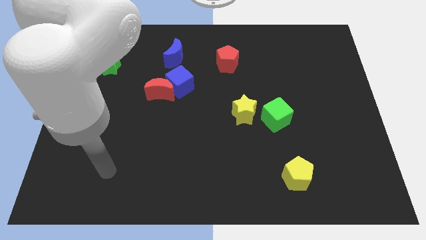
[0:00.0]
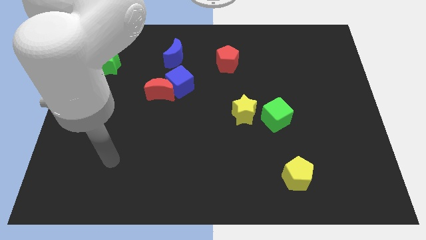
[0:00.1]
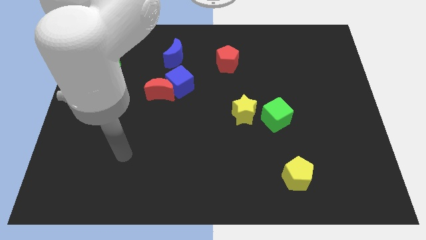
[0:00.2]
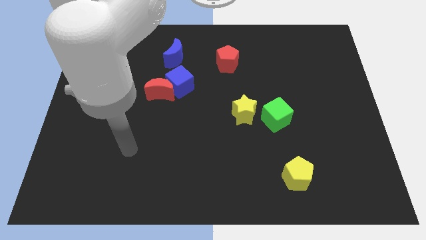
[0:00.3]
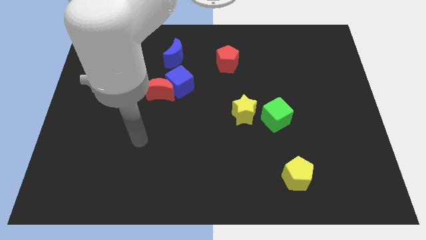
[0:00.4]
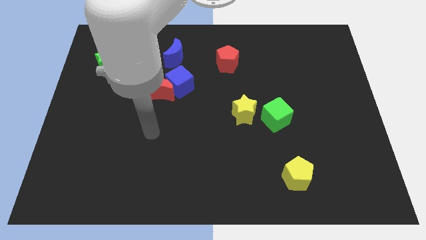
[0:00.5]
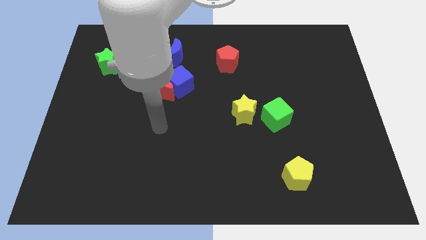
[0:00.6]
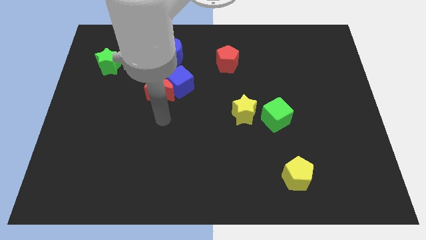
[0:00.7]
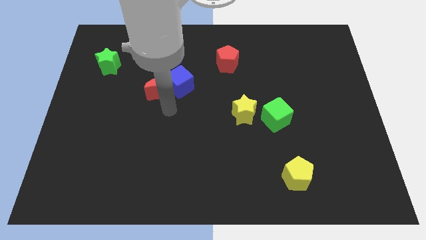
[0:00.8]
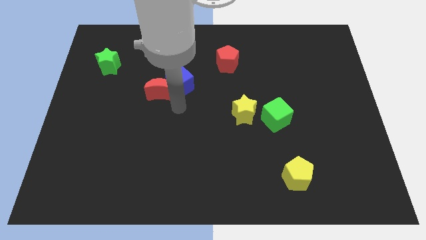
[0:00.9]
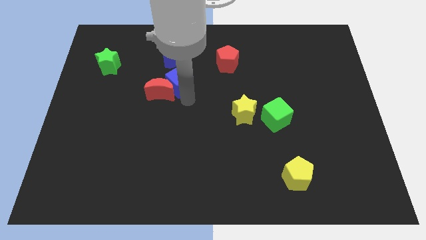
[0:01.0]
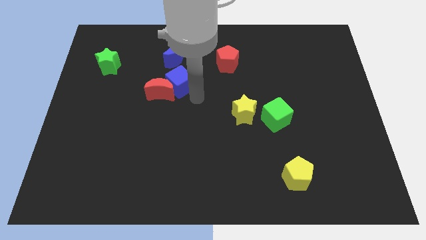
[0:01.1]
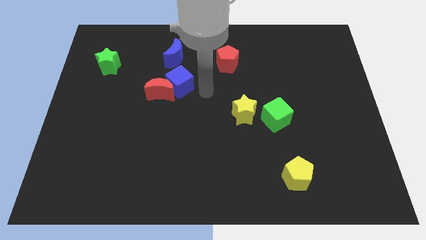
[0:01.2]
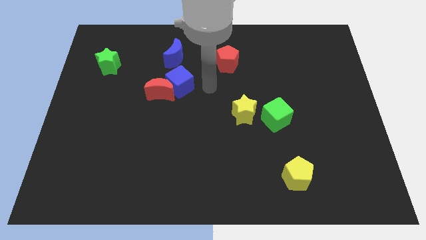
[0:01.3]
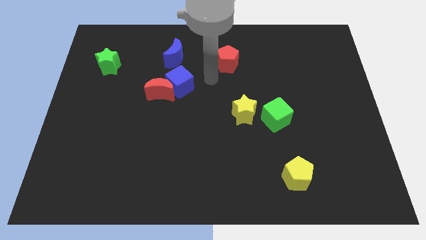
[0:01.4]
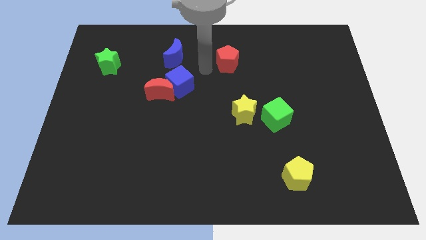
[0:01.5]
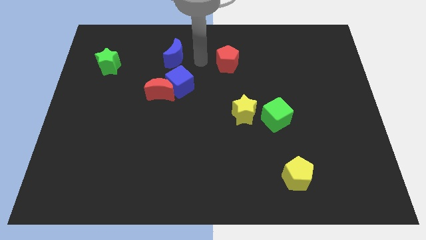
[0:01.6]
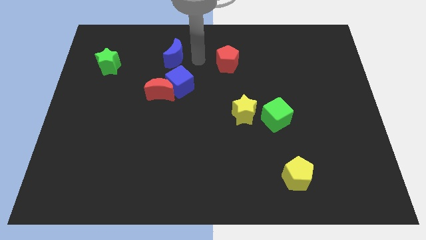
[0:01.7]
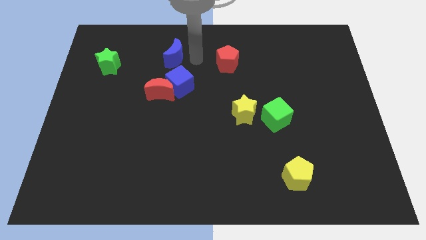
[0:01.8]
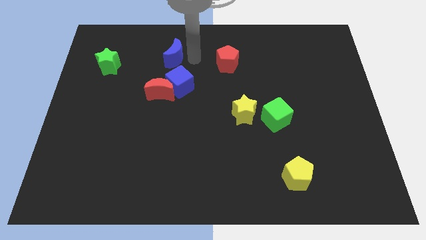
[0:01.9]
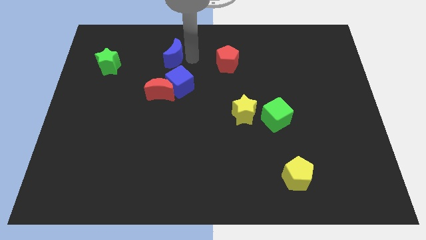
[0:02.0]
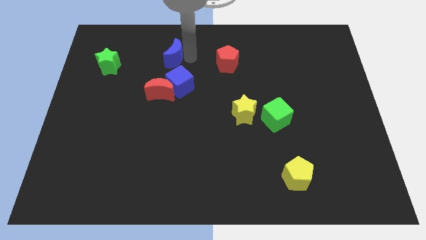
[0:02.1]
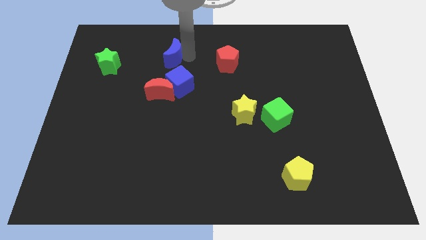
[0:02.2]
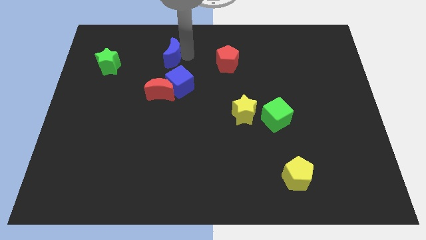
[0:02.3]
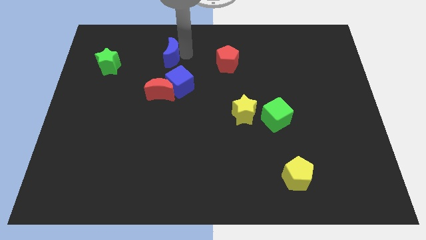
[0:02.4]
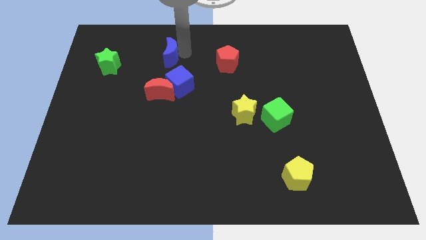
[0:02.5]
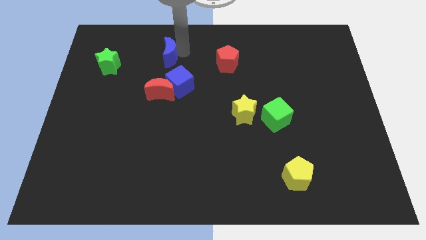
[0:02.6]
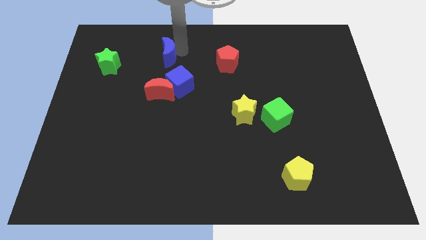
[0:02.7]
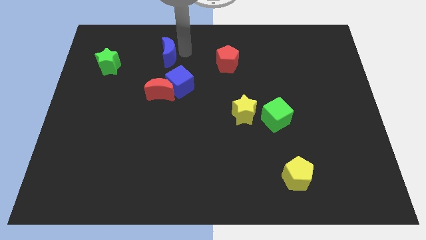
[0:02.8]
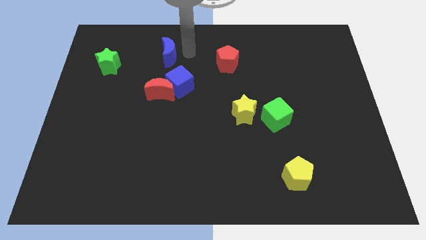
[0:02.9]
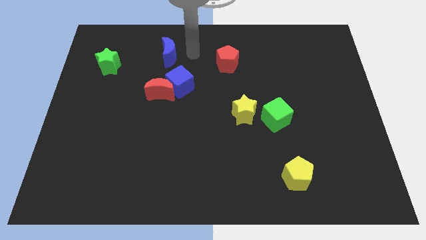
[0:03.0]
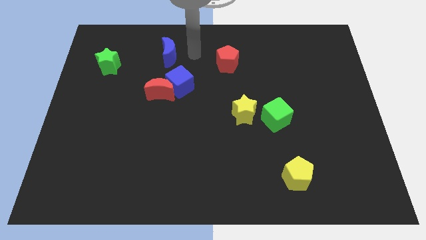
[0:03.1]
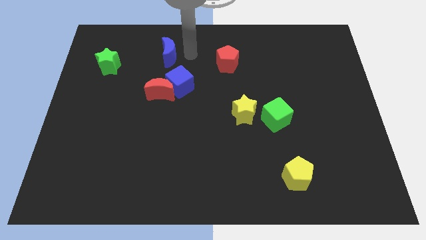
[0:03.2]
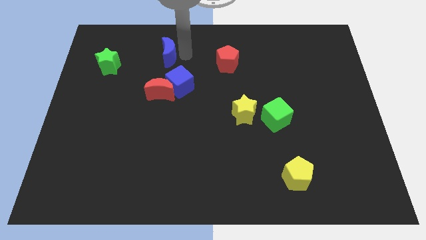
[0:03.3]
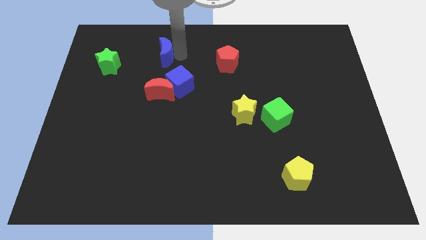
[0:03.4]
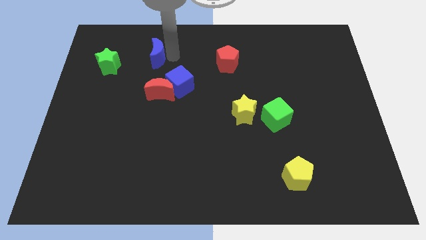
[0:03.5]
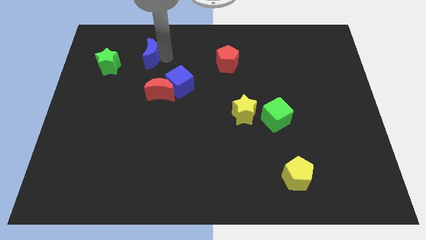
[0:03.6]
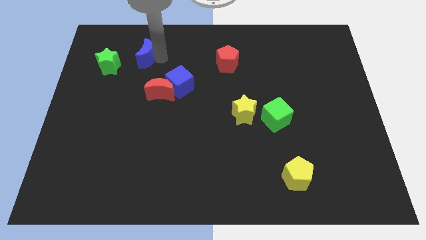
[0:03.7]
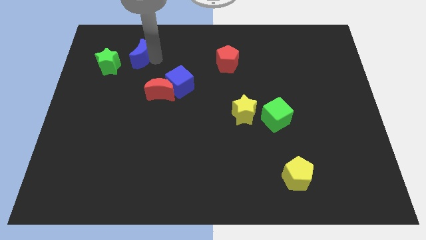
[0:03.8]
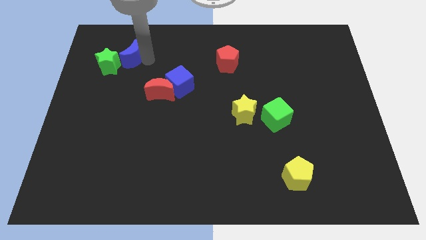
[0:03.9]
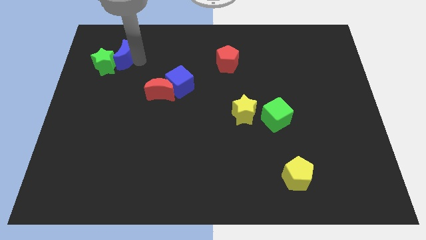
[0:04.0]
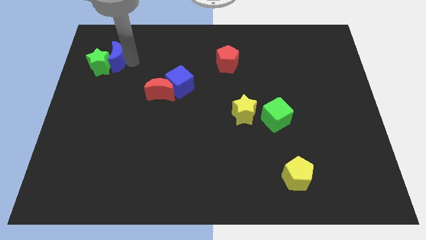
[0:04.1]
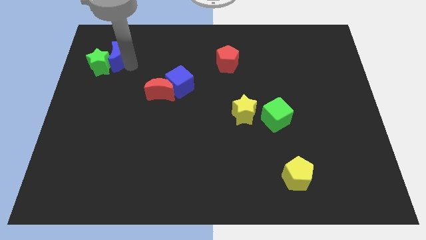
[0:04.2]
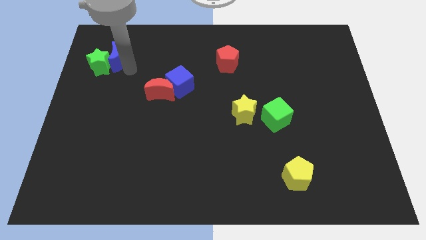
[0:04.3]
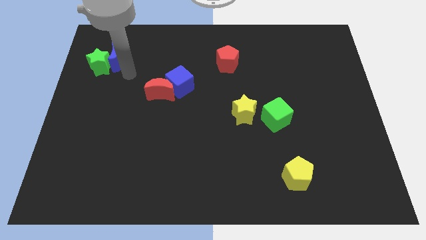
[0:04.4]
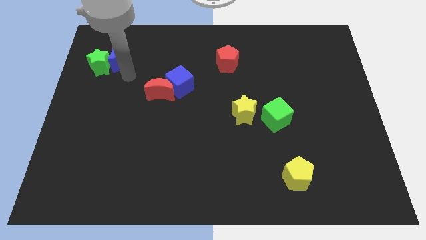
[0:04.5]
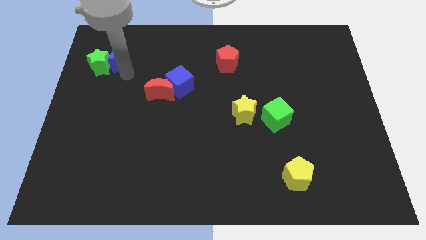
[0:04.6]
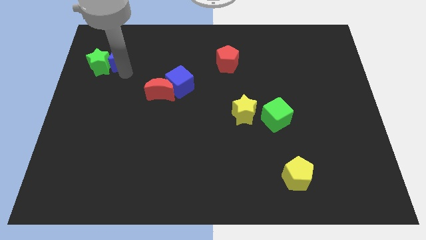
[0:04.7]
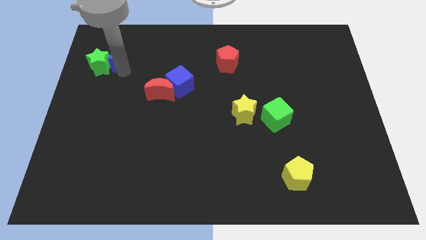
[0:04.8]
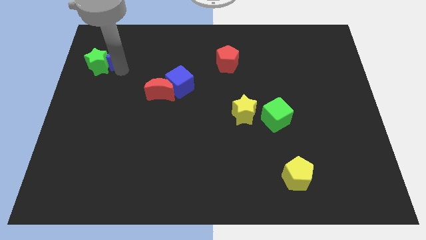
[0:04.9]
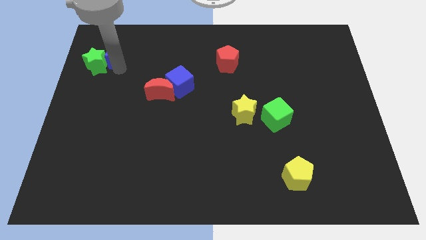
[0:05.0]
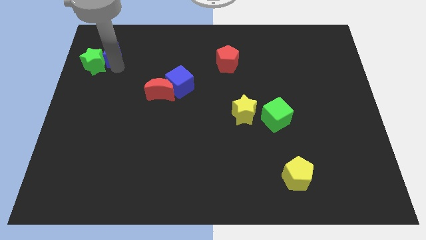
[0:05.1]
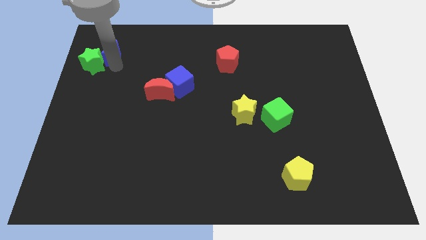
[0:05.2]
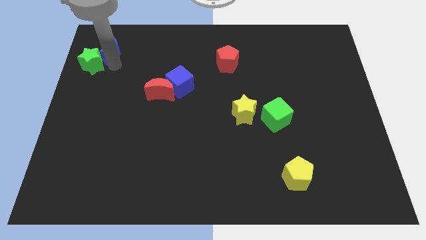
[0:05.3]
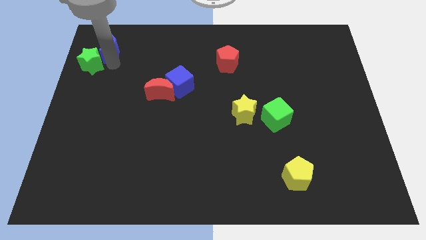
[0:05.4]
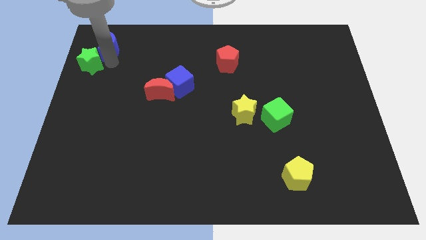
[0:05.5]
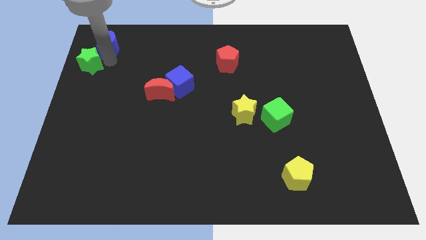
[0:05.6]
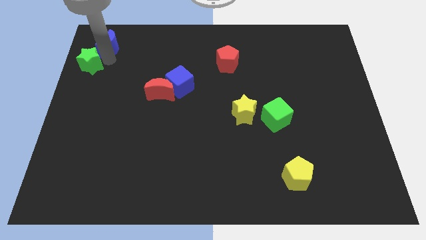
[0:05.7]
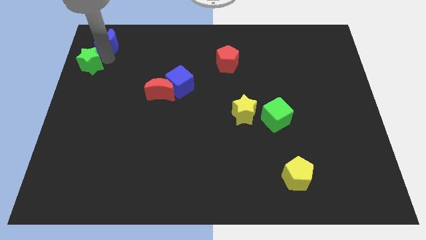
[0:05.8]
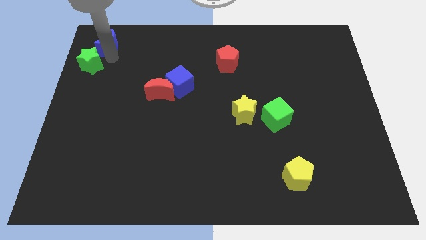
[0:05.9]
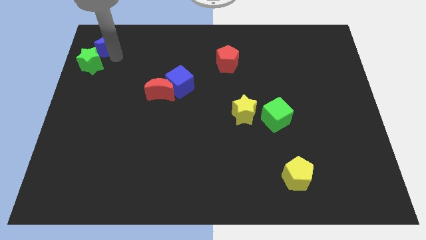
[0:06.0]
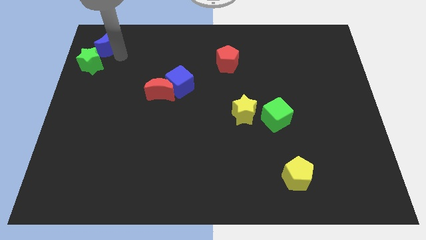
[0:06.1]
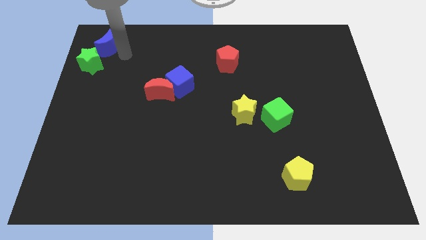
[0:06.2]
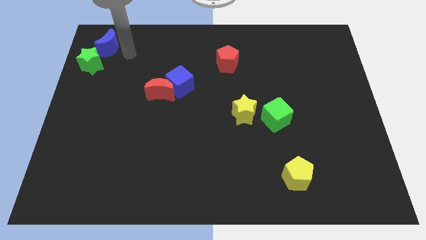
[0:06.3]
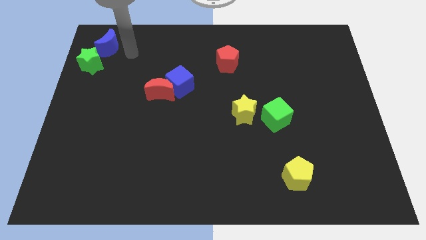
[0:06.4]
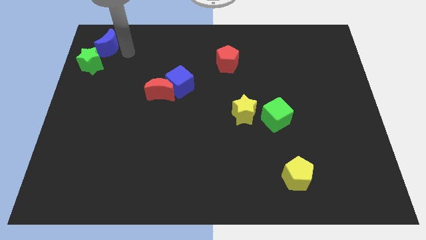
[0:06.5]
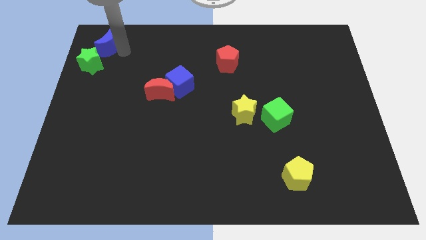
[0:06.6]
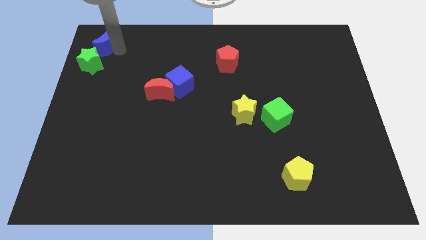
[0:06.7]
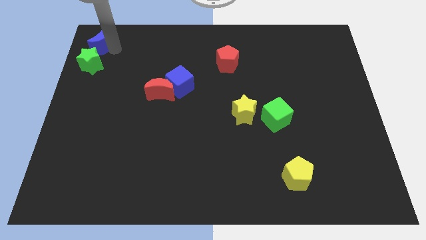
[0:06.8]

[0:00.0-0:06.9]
push the blue moon to the upper left corner
